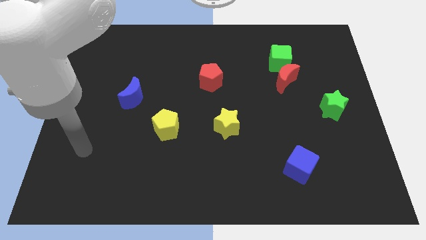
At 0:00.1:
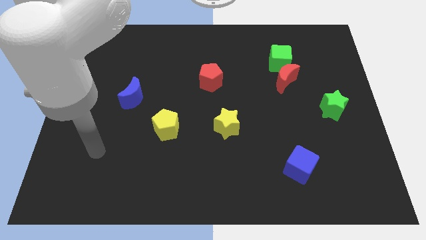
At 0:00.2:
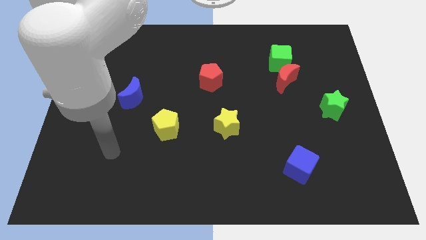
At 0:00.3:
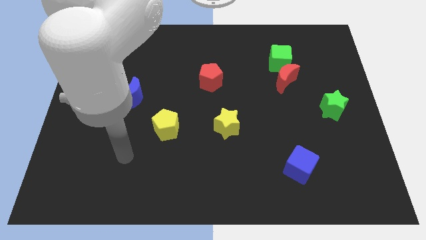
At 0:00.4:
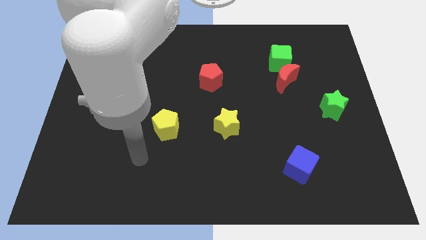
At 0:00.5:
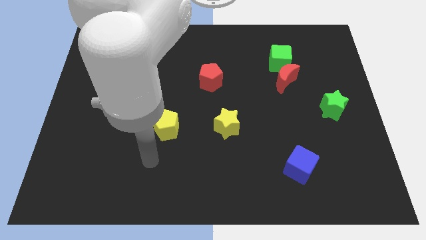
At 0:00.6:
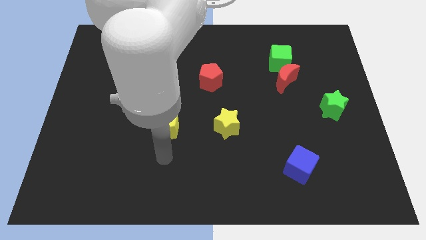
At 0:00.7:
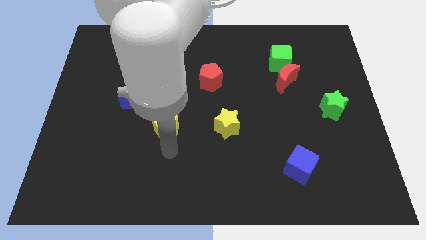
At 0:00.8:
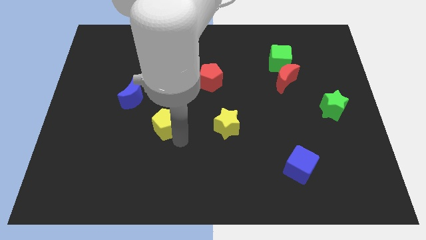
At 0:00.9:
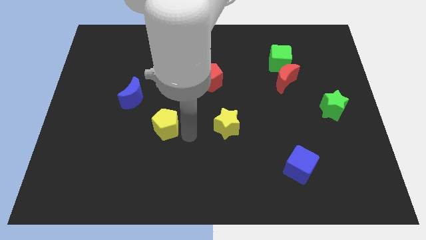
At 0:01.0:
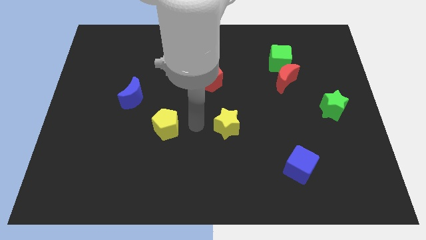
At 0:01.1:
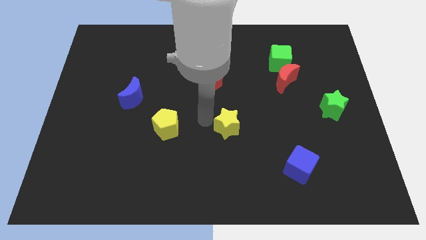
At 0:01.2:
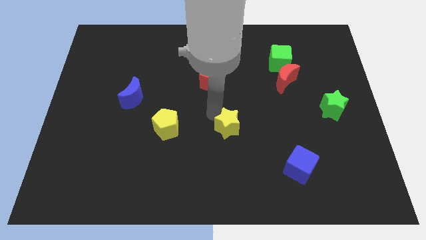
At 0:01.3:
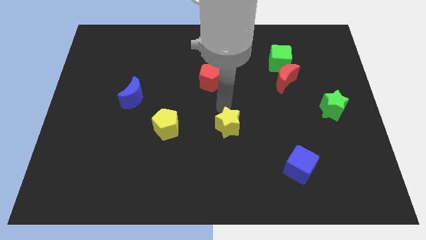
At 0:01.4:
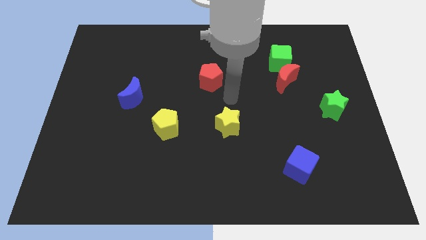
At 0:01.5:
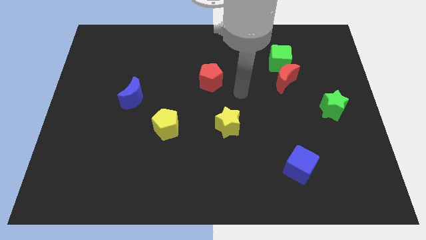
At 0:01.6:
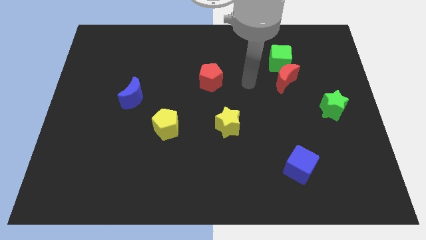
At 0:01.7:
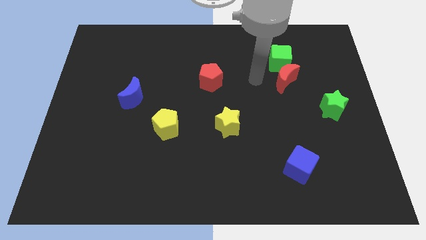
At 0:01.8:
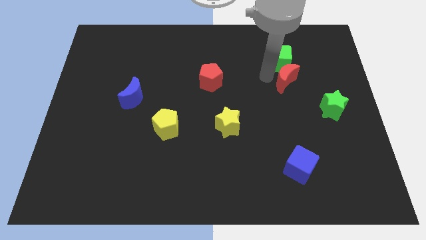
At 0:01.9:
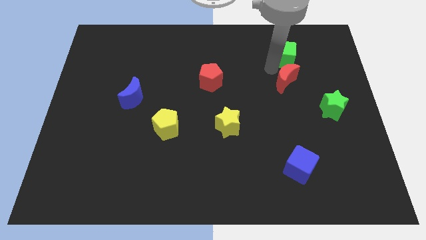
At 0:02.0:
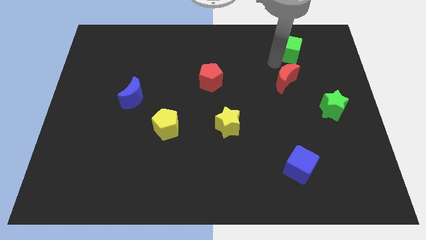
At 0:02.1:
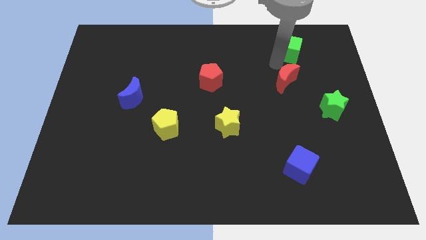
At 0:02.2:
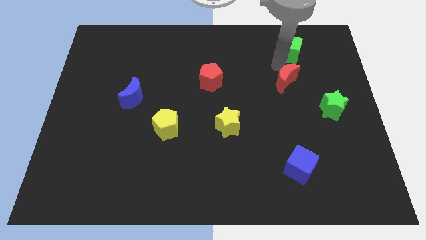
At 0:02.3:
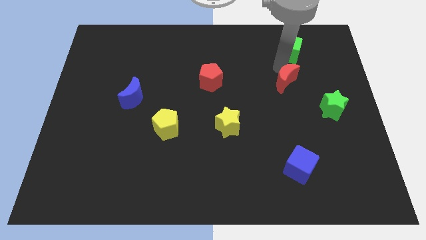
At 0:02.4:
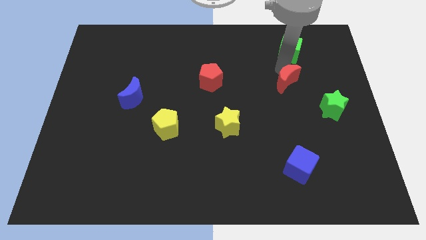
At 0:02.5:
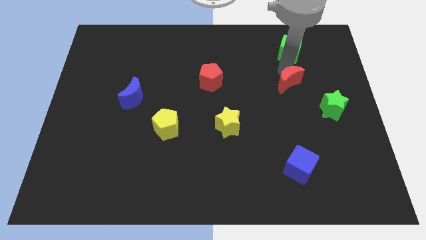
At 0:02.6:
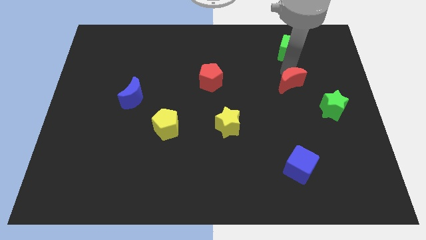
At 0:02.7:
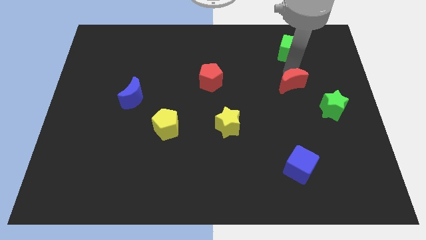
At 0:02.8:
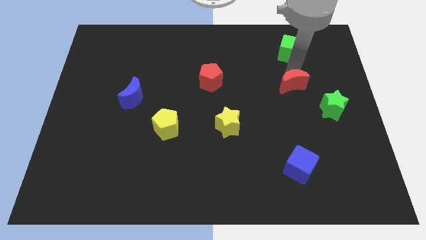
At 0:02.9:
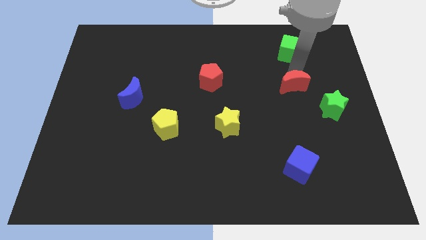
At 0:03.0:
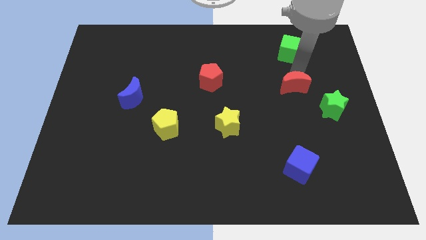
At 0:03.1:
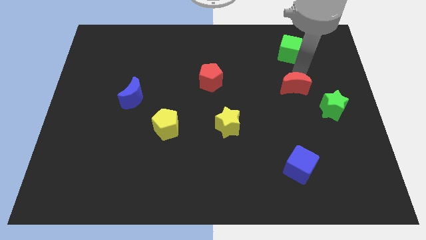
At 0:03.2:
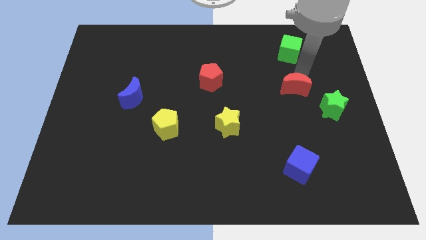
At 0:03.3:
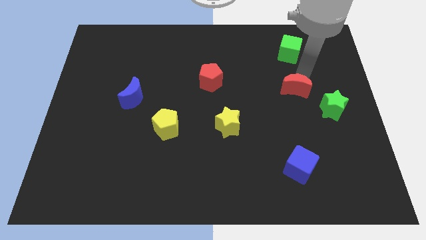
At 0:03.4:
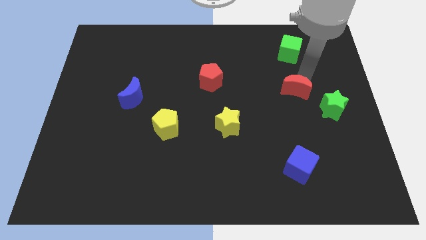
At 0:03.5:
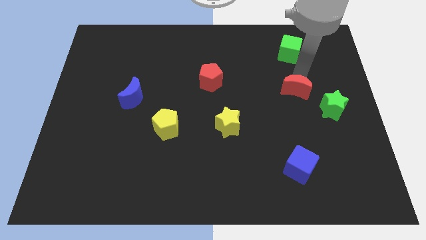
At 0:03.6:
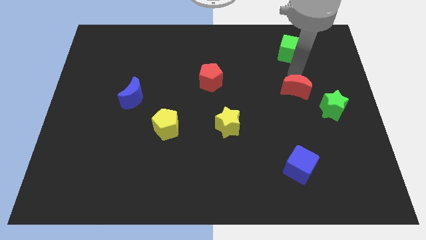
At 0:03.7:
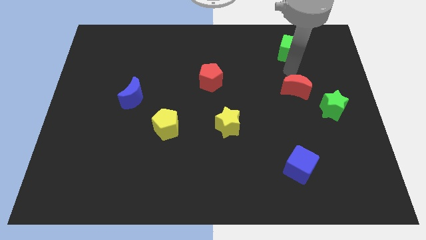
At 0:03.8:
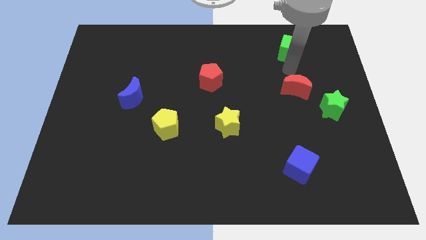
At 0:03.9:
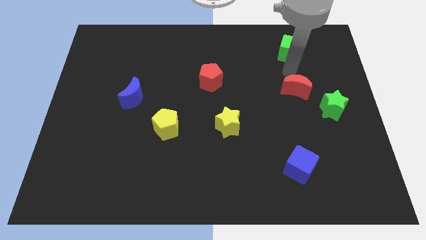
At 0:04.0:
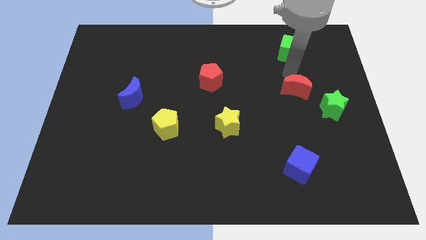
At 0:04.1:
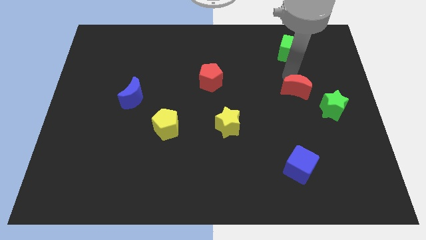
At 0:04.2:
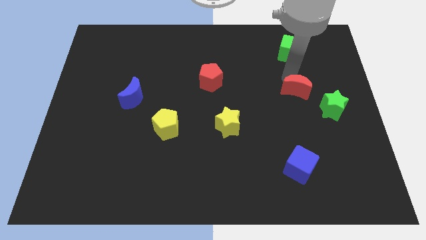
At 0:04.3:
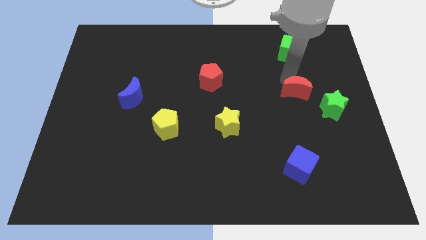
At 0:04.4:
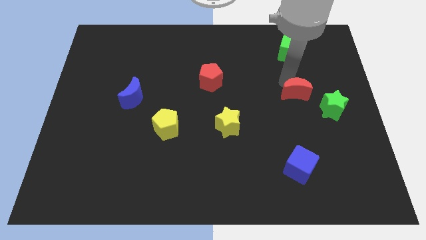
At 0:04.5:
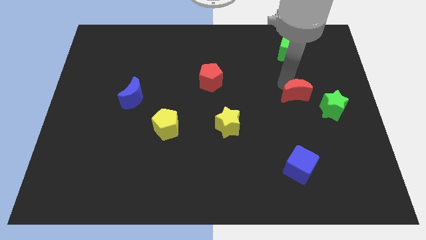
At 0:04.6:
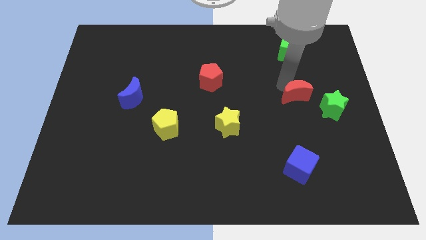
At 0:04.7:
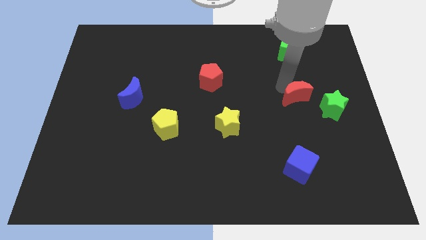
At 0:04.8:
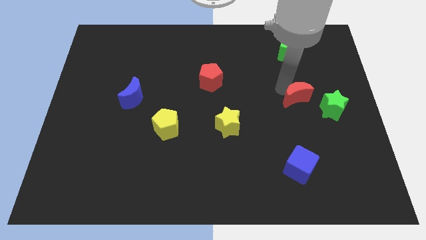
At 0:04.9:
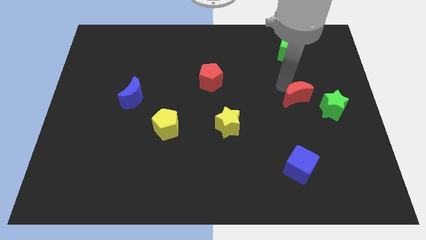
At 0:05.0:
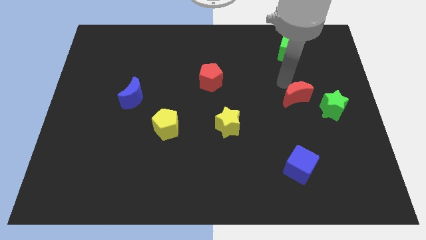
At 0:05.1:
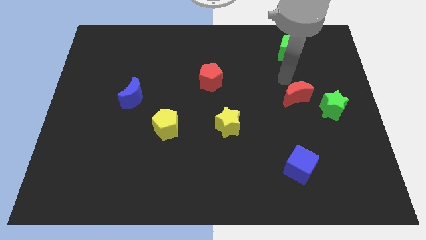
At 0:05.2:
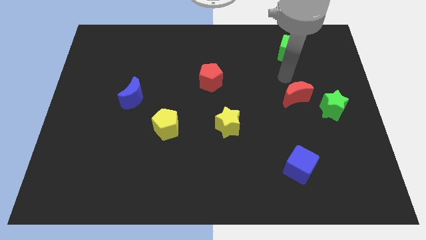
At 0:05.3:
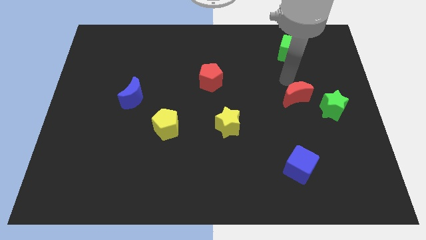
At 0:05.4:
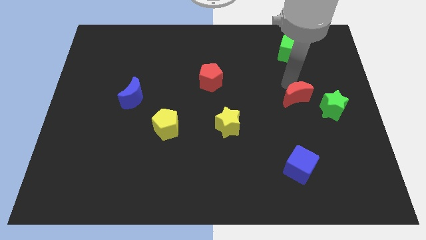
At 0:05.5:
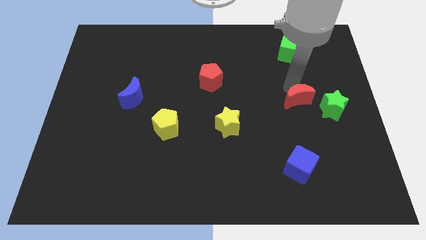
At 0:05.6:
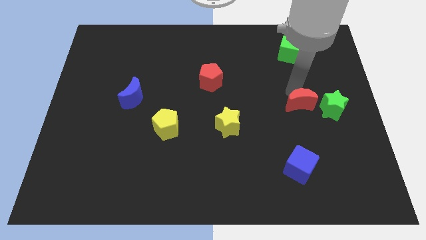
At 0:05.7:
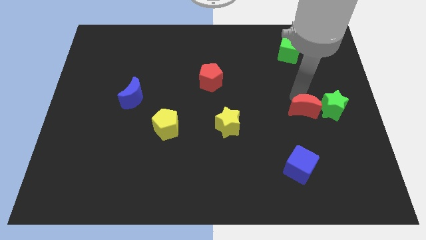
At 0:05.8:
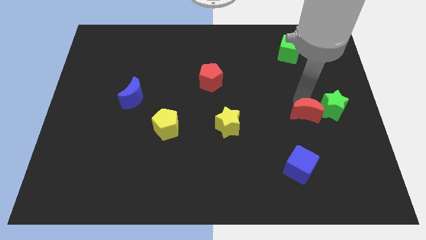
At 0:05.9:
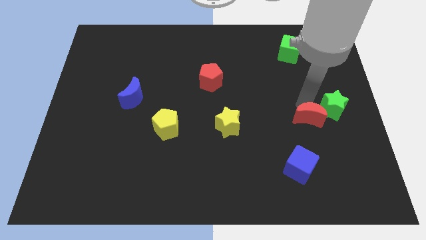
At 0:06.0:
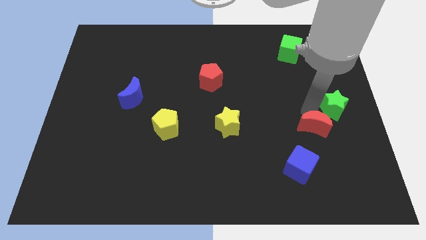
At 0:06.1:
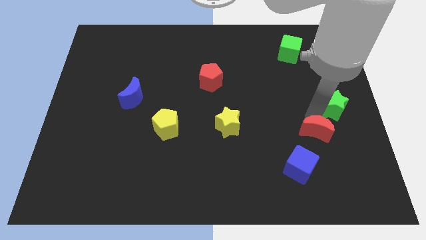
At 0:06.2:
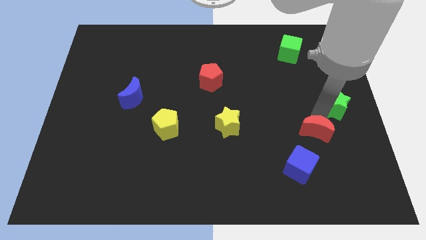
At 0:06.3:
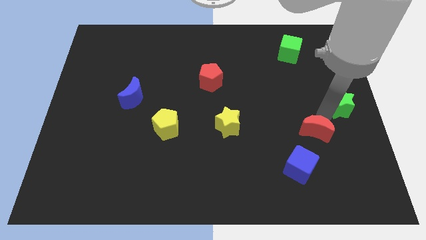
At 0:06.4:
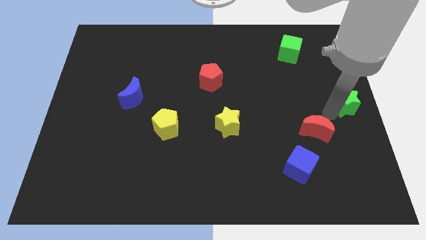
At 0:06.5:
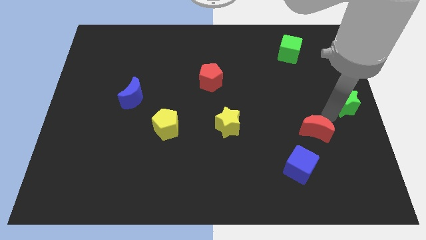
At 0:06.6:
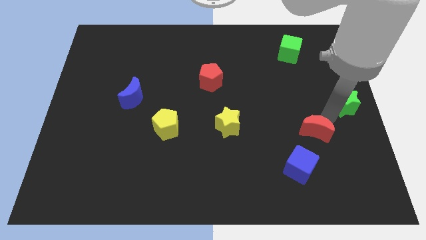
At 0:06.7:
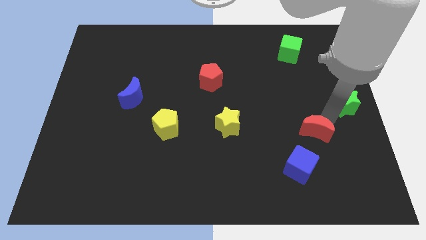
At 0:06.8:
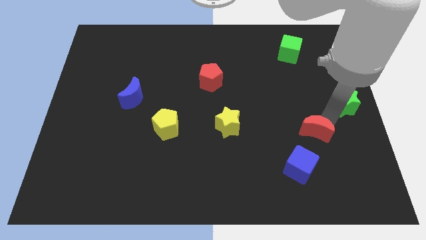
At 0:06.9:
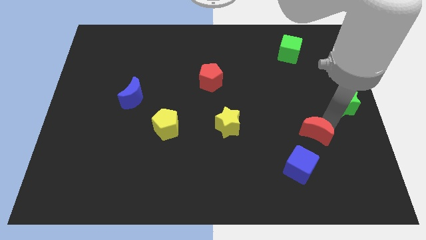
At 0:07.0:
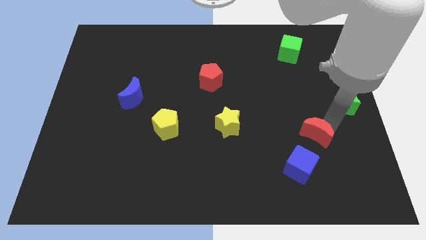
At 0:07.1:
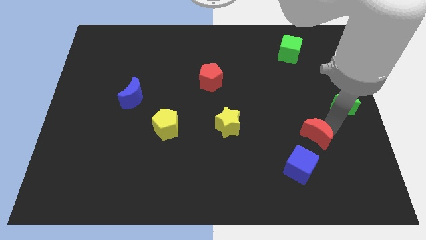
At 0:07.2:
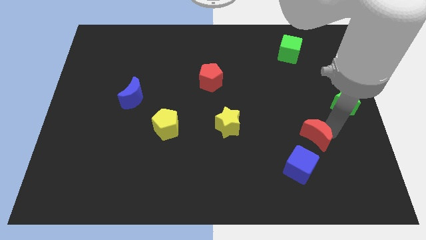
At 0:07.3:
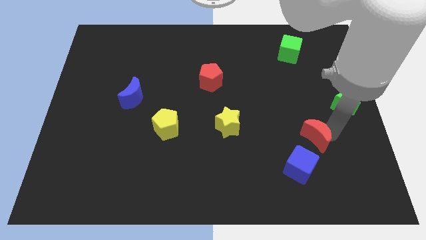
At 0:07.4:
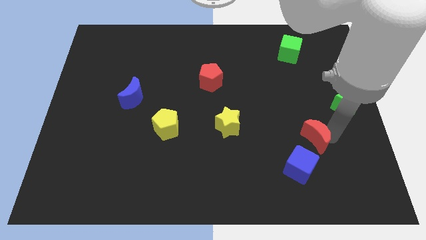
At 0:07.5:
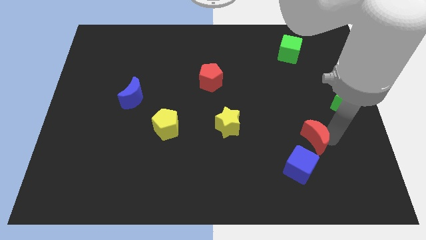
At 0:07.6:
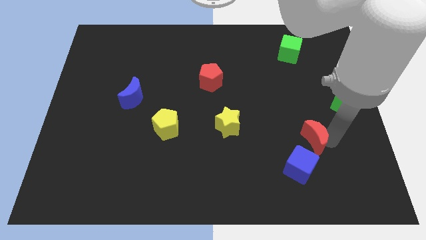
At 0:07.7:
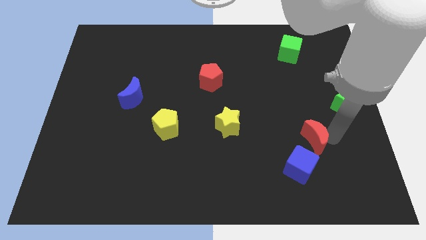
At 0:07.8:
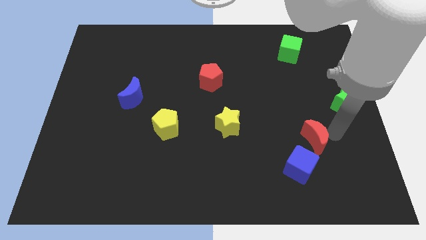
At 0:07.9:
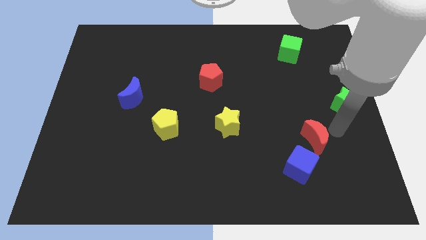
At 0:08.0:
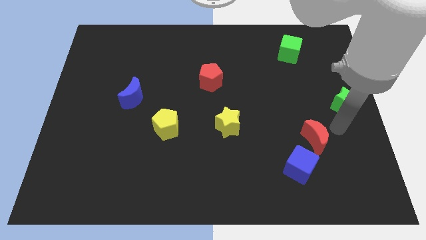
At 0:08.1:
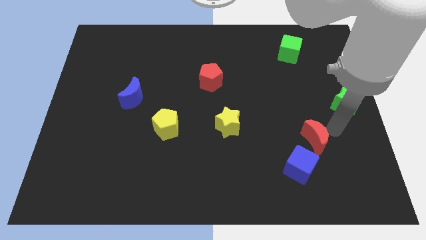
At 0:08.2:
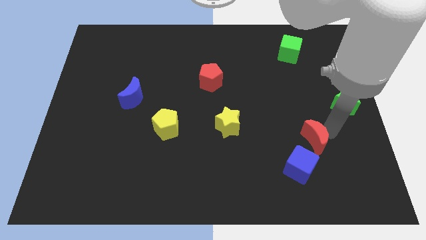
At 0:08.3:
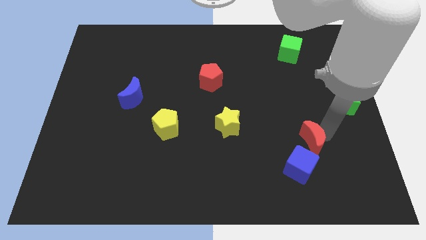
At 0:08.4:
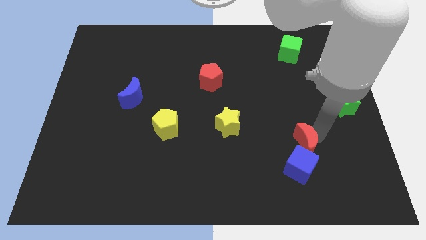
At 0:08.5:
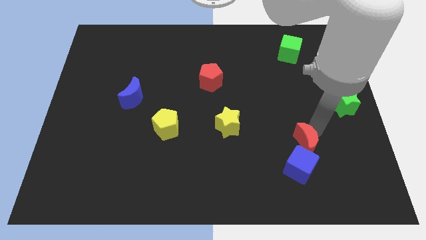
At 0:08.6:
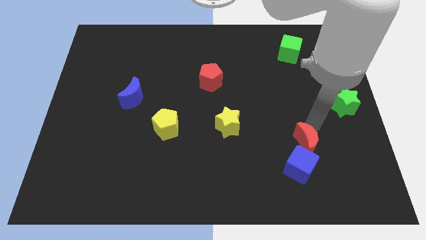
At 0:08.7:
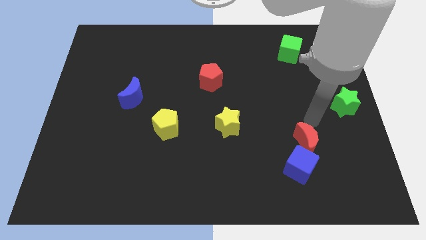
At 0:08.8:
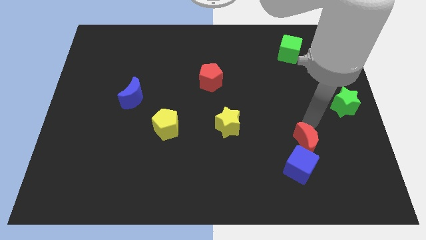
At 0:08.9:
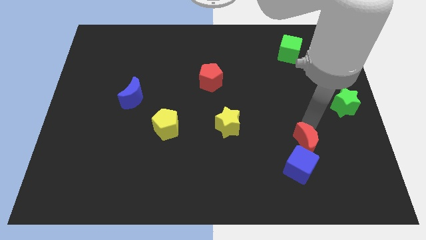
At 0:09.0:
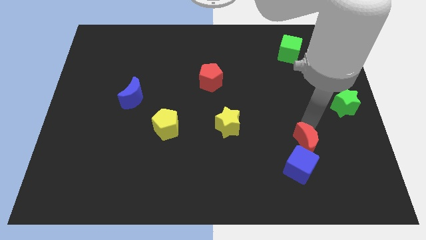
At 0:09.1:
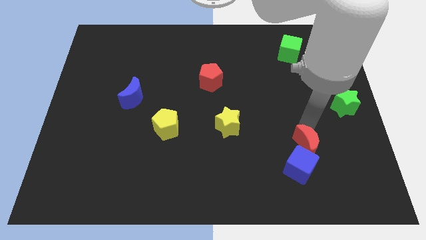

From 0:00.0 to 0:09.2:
move the red moon to the blue cube
